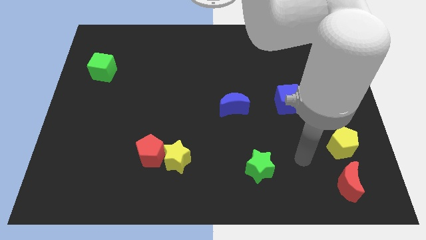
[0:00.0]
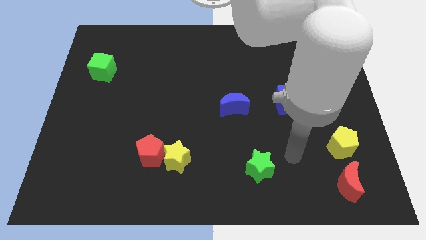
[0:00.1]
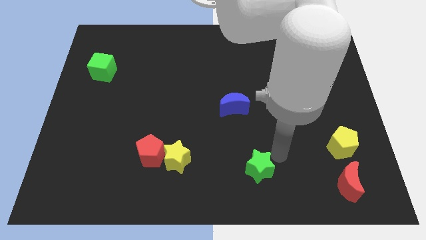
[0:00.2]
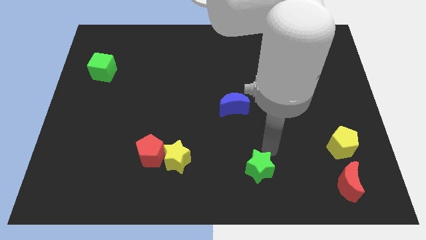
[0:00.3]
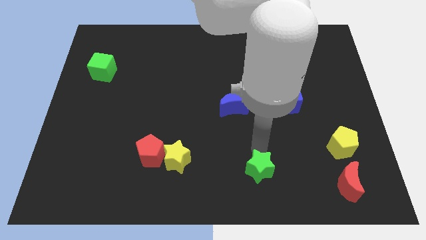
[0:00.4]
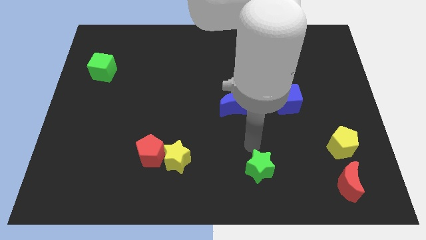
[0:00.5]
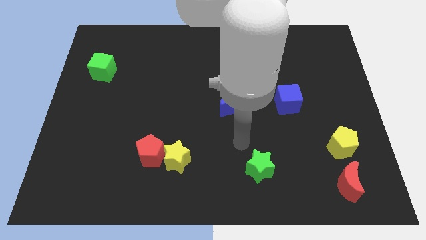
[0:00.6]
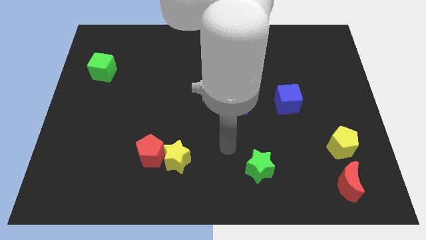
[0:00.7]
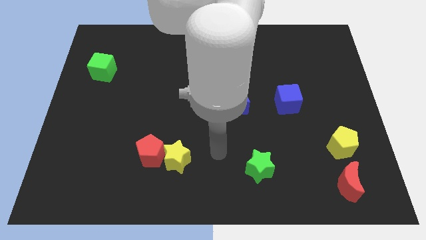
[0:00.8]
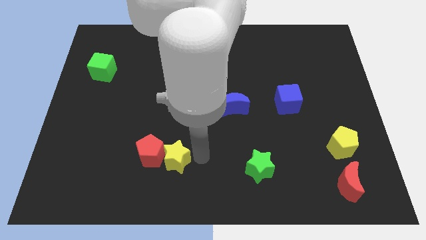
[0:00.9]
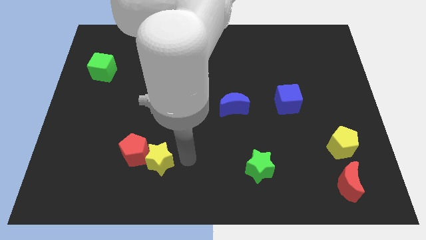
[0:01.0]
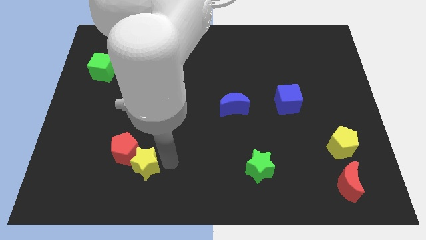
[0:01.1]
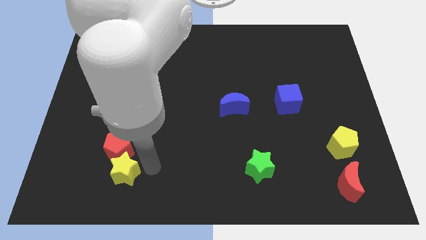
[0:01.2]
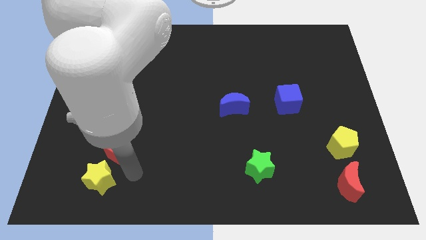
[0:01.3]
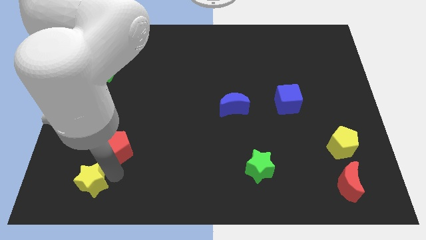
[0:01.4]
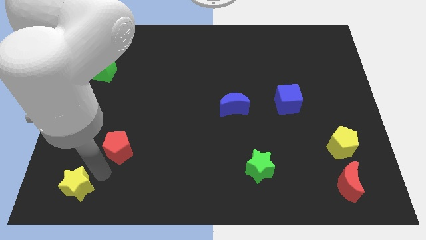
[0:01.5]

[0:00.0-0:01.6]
move the red pentagon away from the yellow star

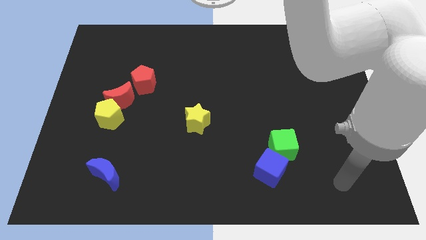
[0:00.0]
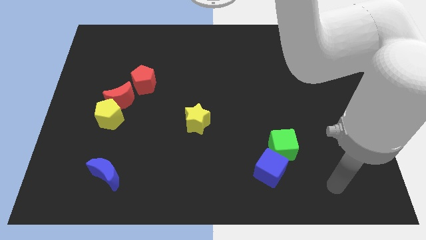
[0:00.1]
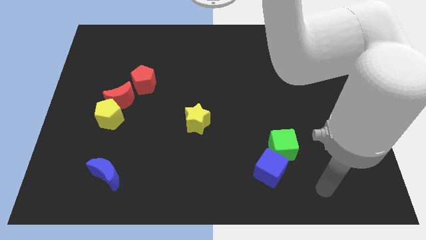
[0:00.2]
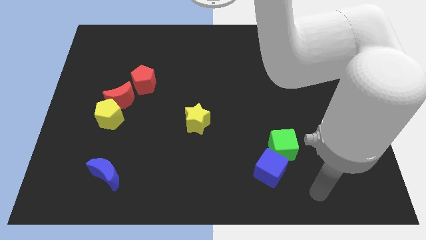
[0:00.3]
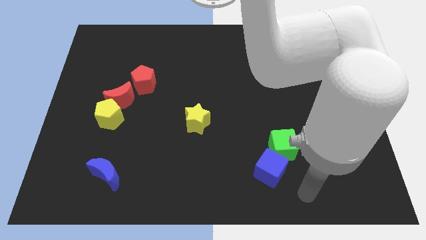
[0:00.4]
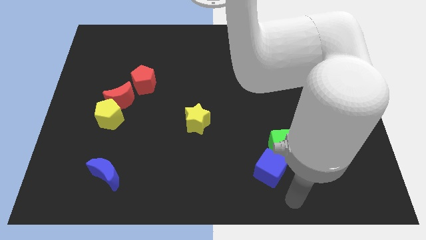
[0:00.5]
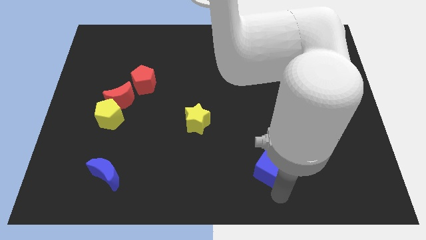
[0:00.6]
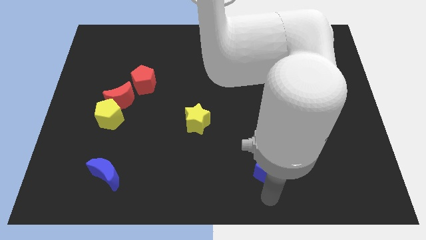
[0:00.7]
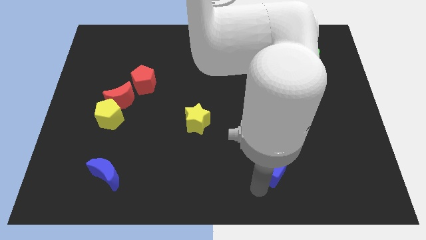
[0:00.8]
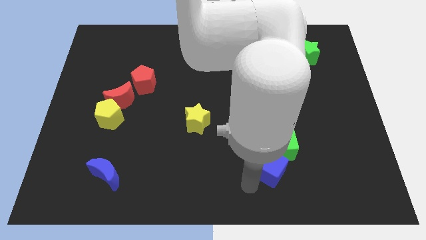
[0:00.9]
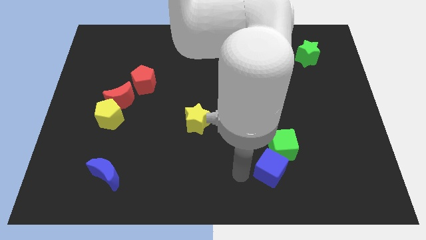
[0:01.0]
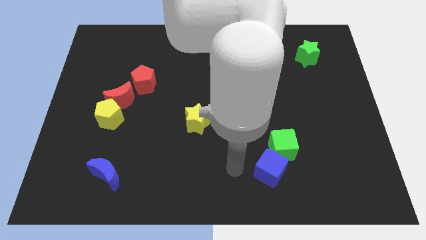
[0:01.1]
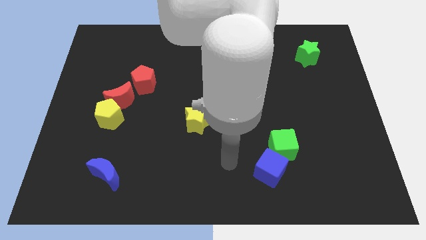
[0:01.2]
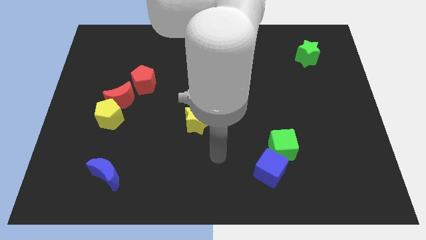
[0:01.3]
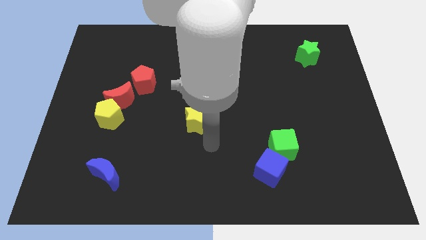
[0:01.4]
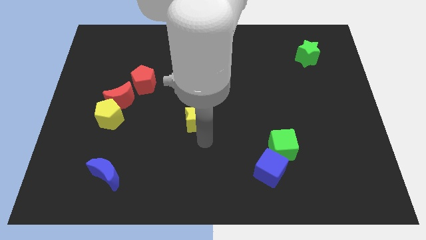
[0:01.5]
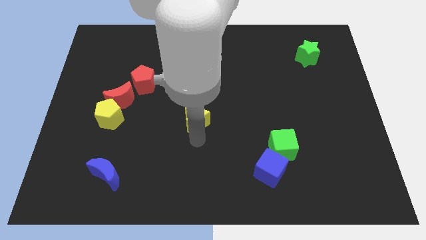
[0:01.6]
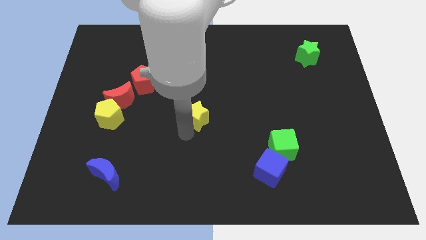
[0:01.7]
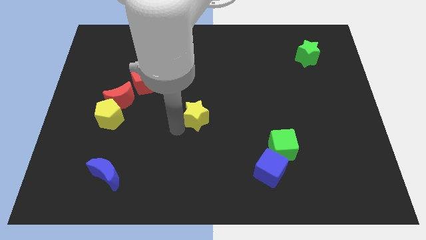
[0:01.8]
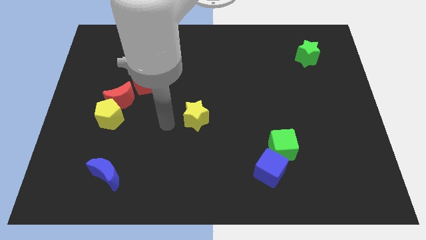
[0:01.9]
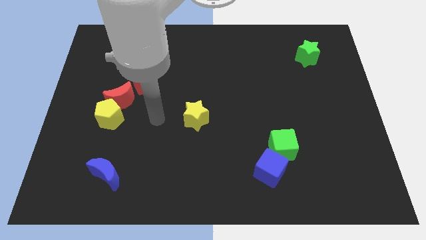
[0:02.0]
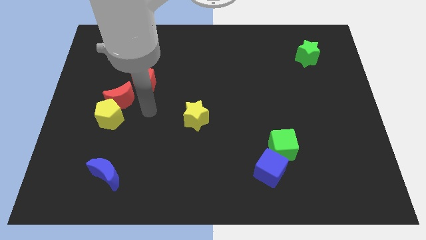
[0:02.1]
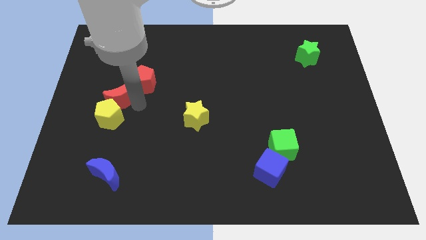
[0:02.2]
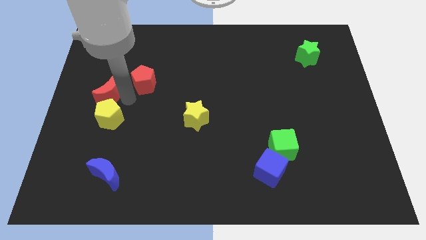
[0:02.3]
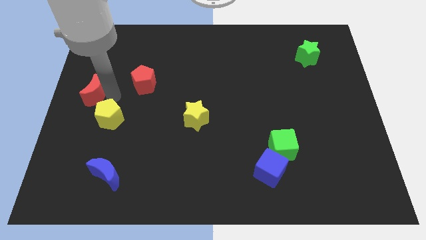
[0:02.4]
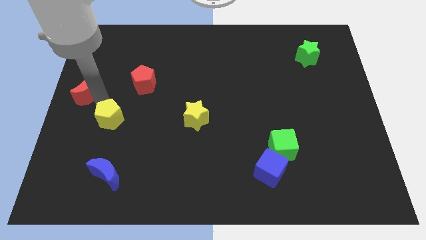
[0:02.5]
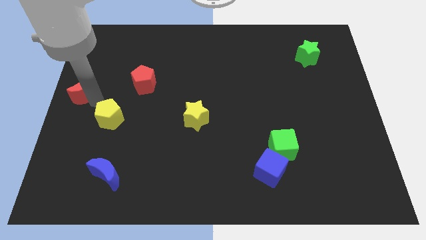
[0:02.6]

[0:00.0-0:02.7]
pull the yellow pentagon apart from the red moon

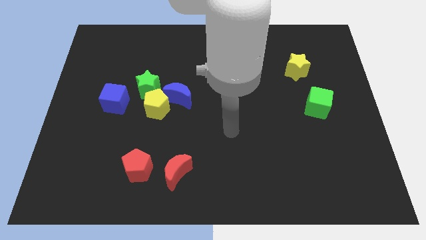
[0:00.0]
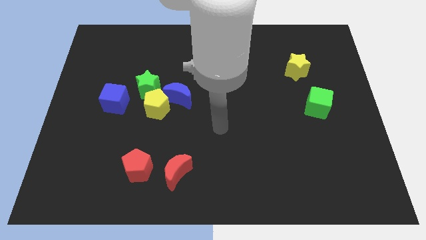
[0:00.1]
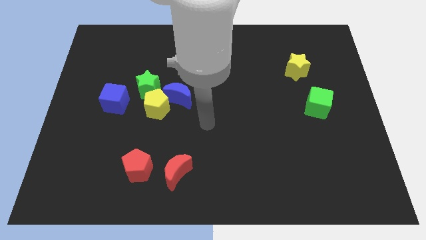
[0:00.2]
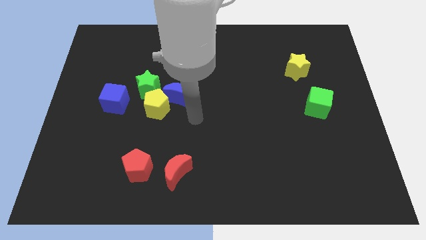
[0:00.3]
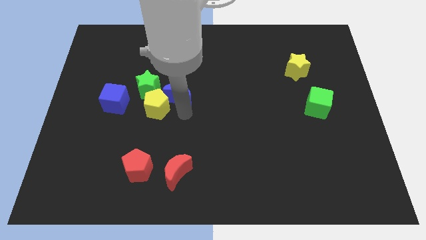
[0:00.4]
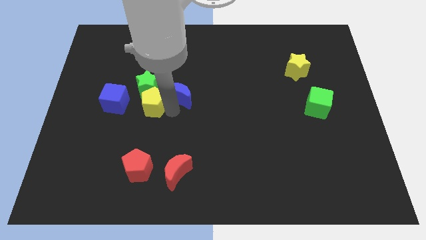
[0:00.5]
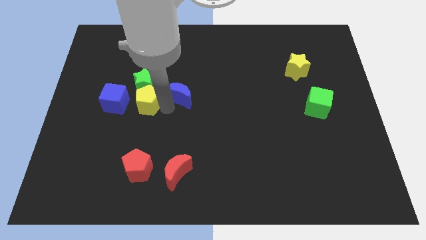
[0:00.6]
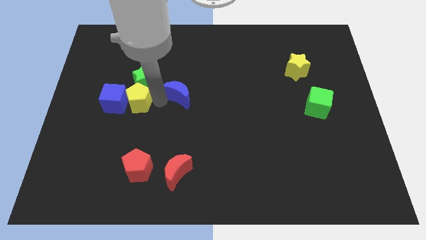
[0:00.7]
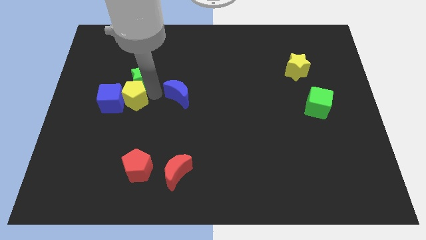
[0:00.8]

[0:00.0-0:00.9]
separate the blue moon from the yellow pentagon and green star

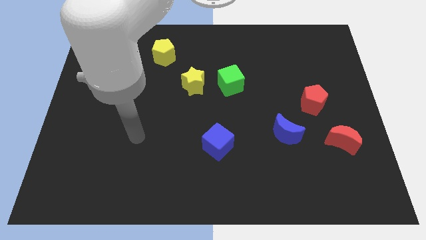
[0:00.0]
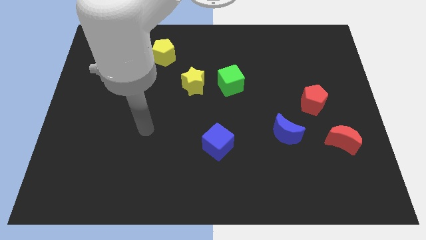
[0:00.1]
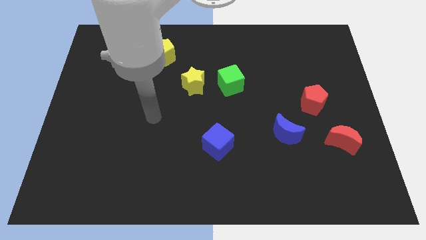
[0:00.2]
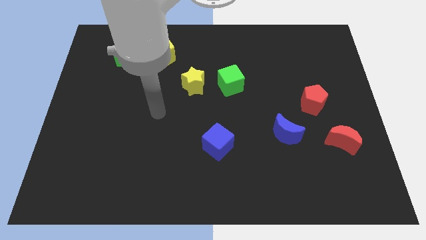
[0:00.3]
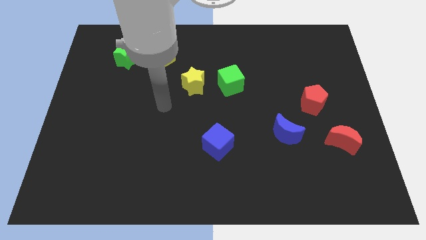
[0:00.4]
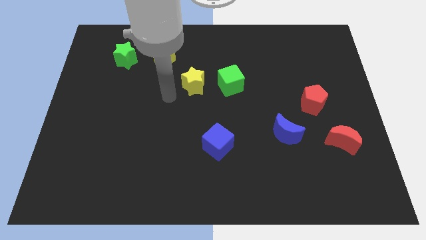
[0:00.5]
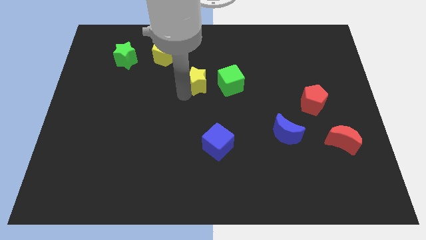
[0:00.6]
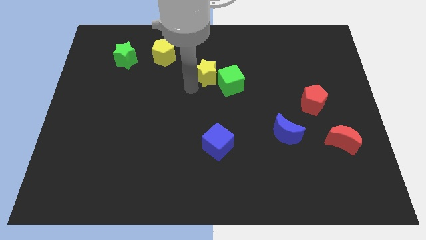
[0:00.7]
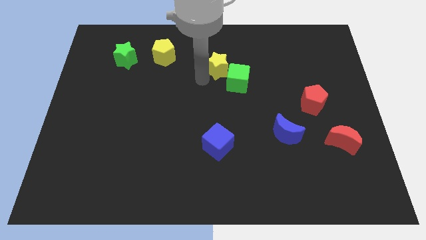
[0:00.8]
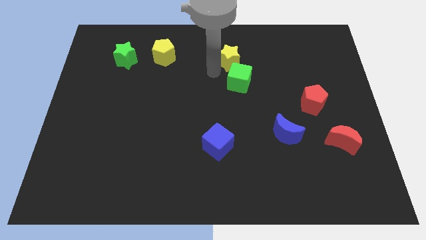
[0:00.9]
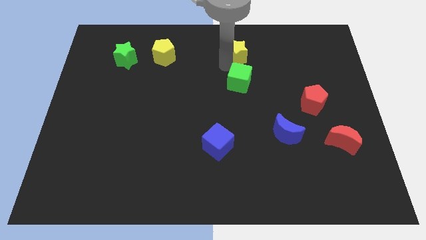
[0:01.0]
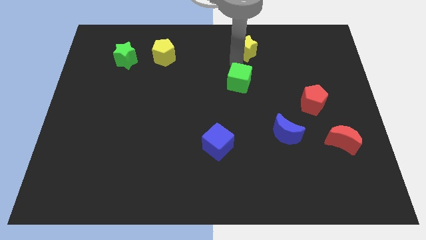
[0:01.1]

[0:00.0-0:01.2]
move the green cube away from the yellow star

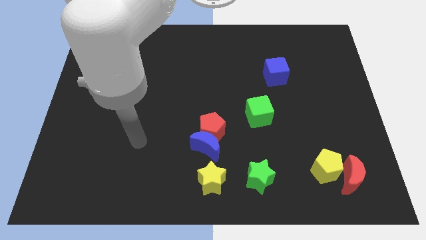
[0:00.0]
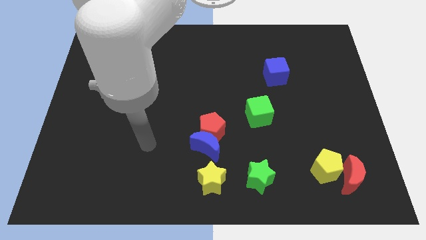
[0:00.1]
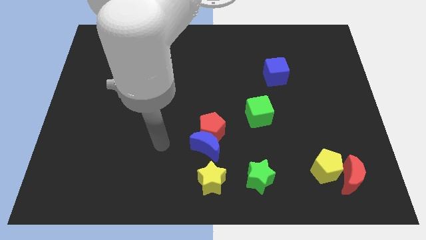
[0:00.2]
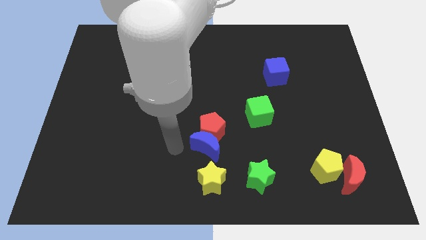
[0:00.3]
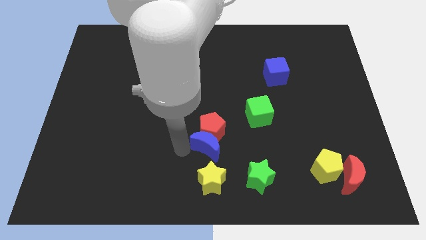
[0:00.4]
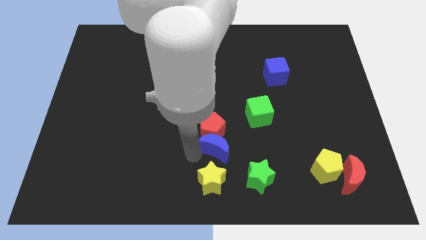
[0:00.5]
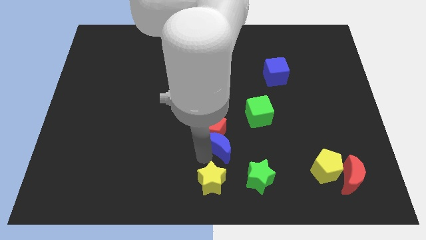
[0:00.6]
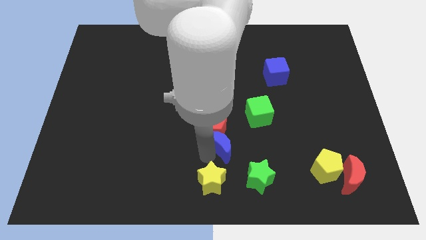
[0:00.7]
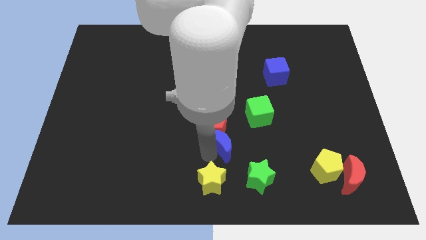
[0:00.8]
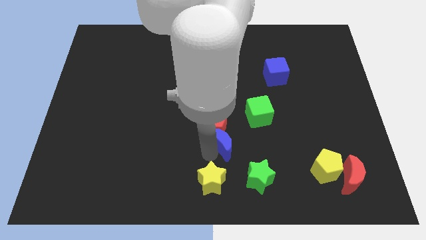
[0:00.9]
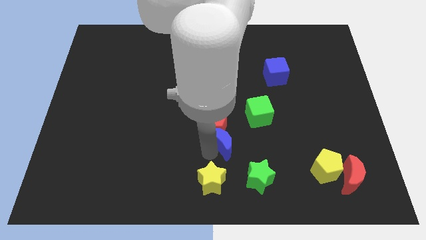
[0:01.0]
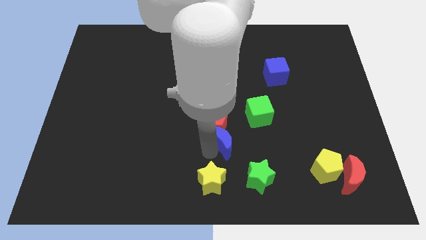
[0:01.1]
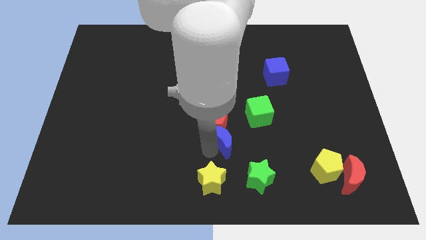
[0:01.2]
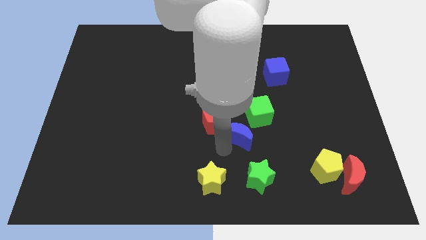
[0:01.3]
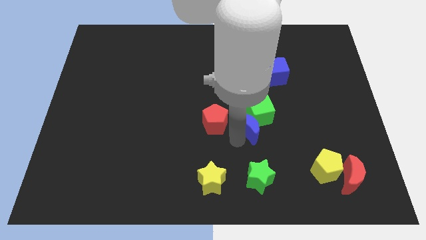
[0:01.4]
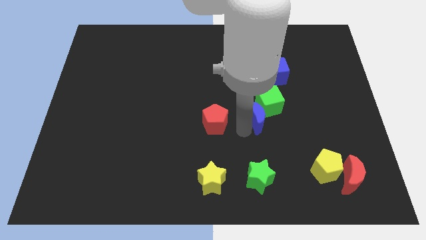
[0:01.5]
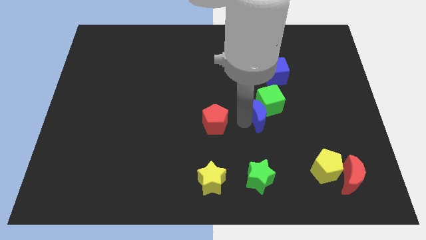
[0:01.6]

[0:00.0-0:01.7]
move the red pentagon away from the blue moon

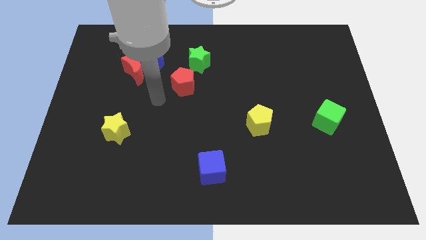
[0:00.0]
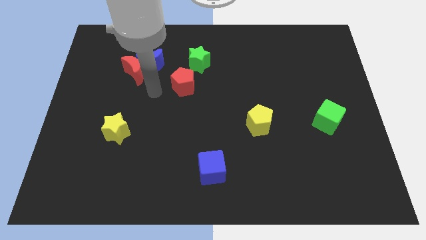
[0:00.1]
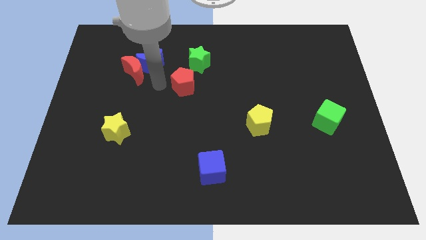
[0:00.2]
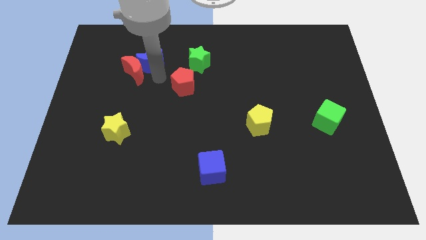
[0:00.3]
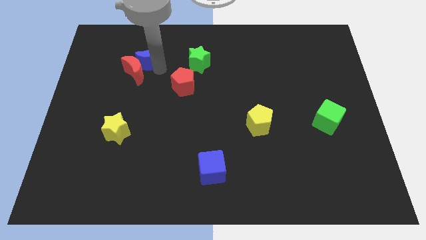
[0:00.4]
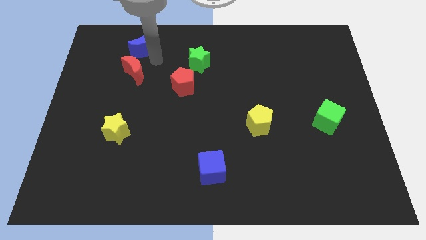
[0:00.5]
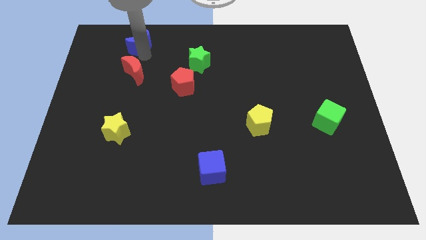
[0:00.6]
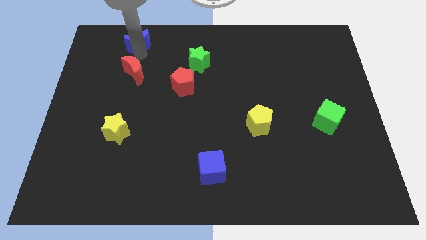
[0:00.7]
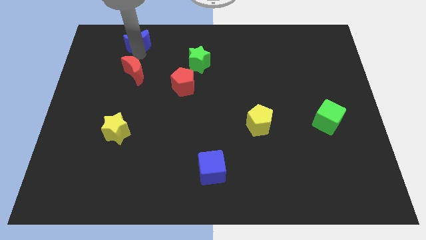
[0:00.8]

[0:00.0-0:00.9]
separate the red moon from the blue moon

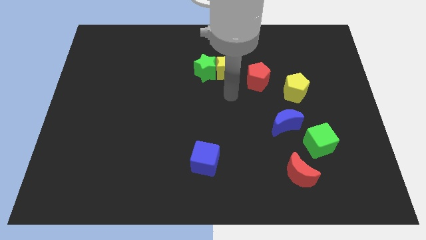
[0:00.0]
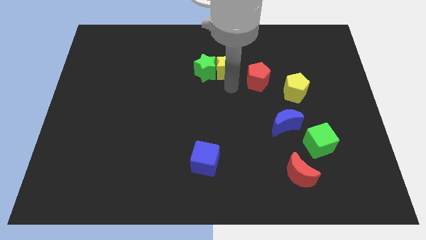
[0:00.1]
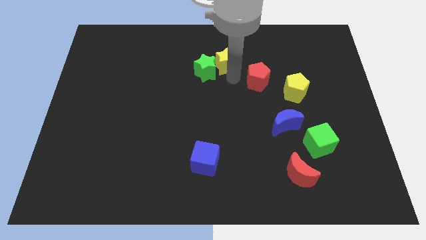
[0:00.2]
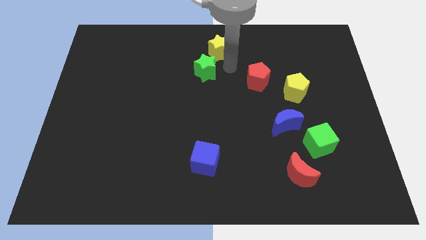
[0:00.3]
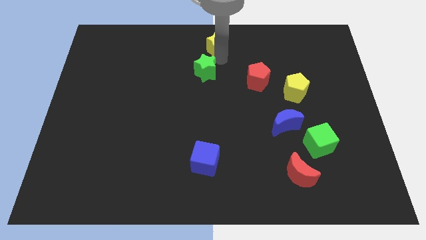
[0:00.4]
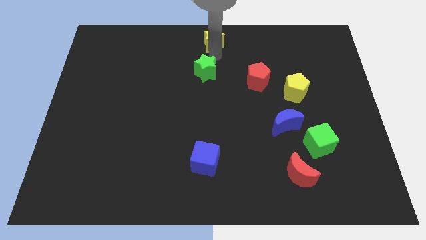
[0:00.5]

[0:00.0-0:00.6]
pull the green star apart from the yellow star
